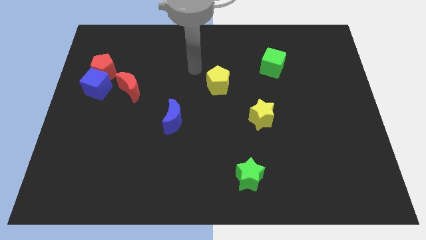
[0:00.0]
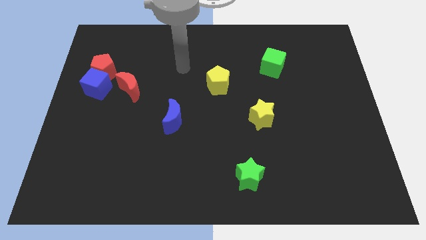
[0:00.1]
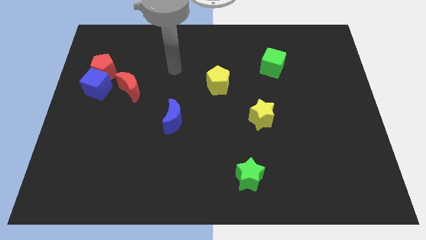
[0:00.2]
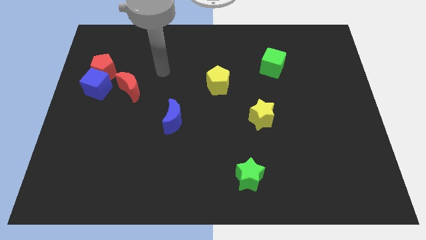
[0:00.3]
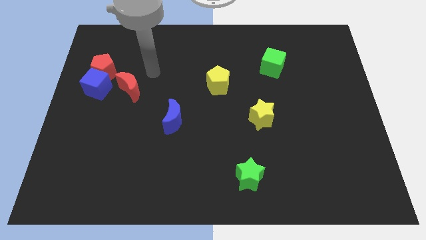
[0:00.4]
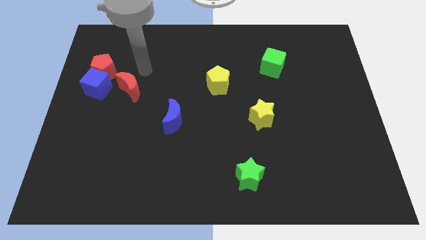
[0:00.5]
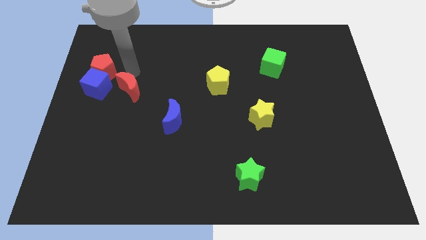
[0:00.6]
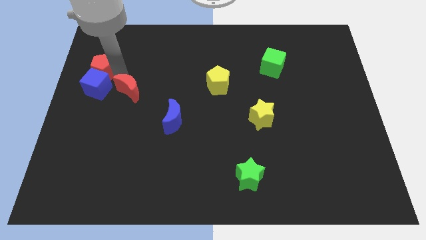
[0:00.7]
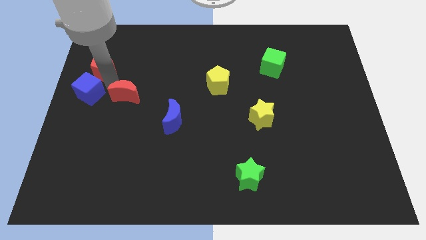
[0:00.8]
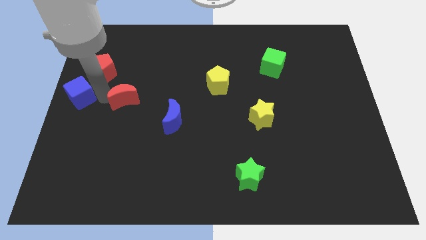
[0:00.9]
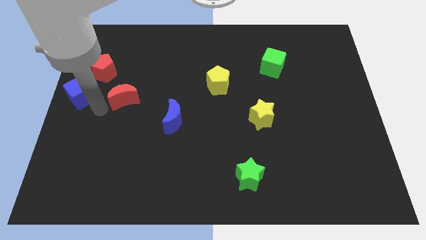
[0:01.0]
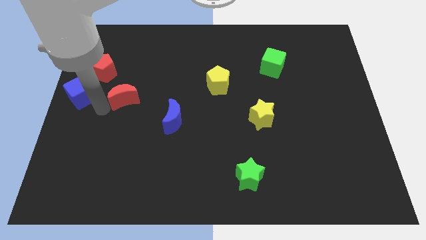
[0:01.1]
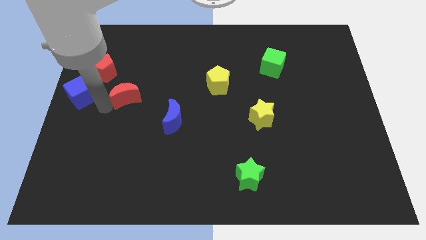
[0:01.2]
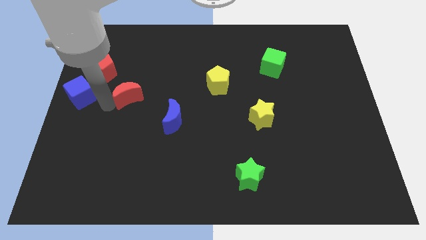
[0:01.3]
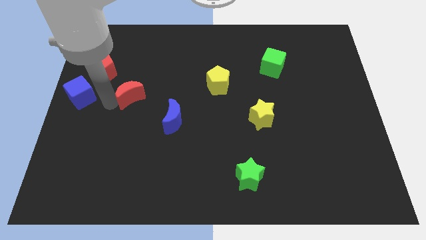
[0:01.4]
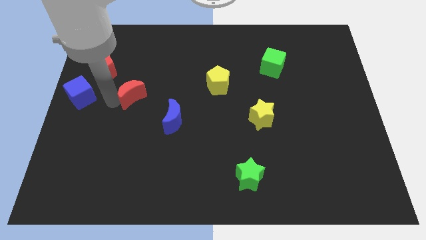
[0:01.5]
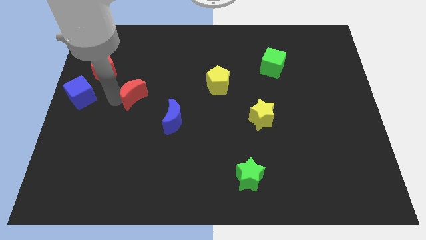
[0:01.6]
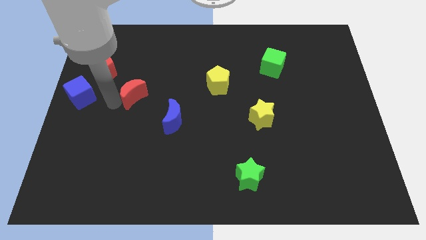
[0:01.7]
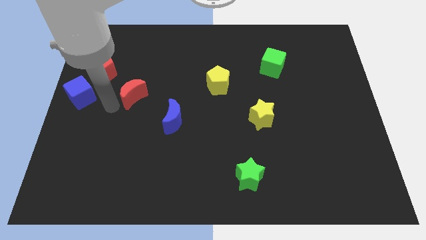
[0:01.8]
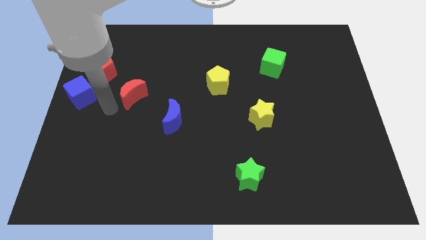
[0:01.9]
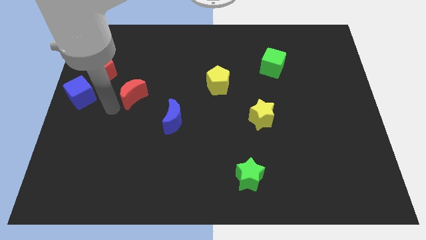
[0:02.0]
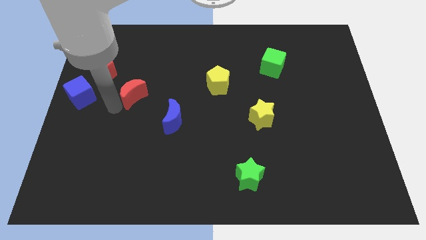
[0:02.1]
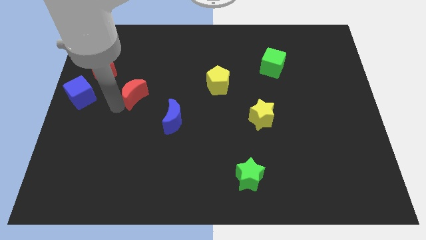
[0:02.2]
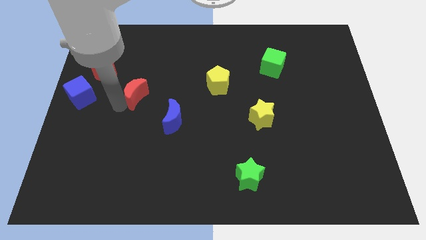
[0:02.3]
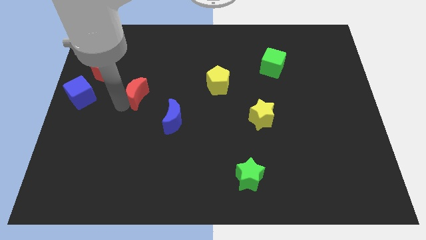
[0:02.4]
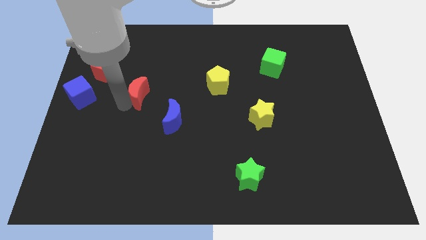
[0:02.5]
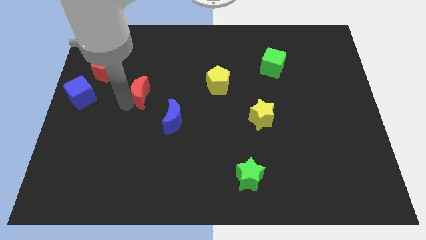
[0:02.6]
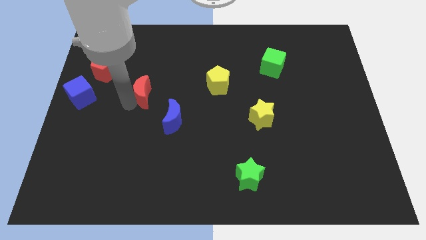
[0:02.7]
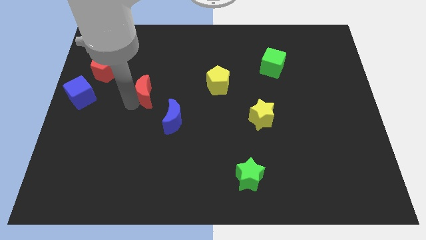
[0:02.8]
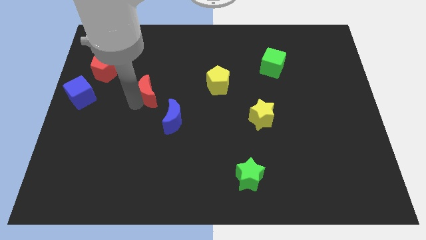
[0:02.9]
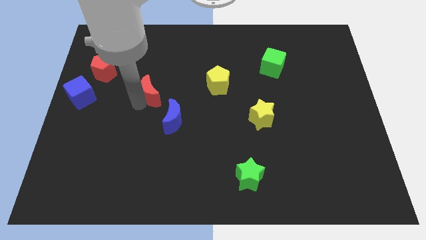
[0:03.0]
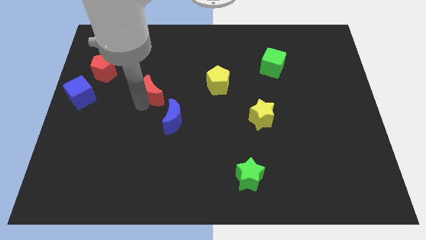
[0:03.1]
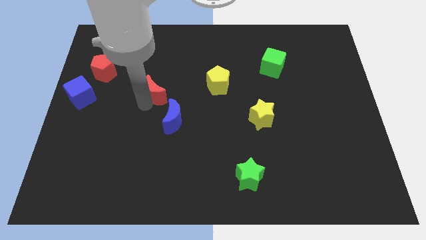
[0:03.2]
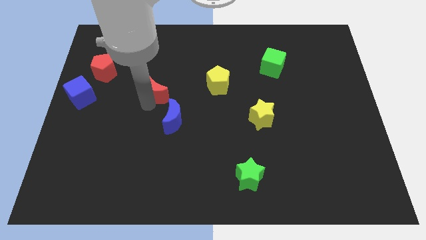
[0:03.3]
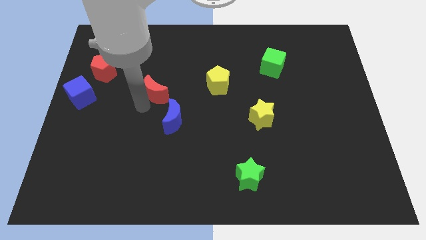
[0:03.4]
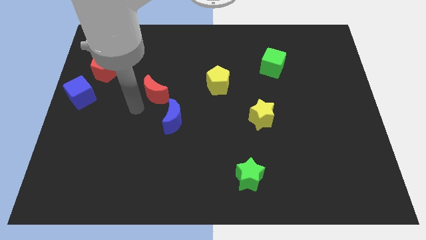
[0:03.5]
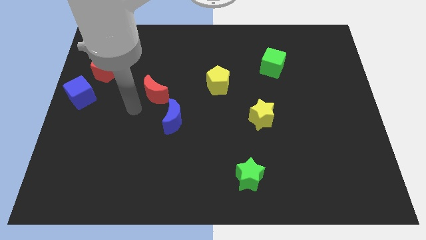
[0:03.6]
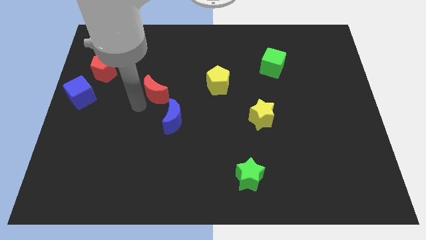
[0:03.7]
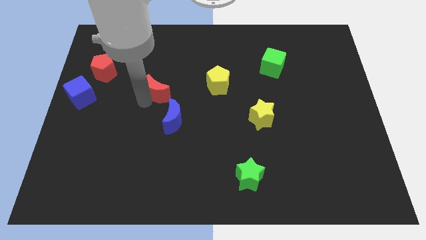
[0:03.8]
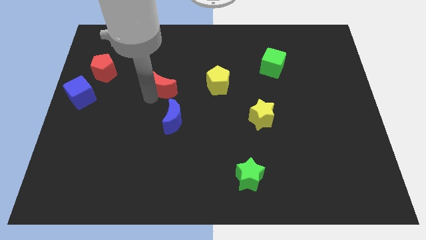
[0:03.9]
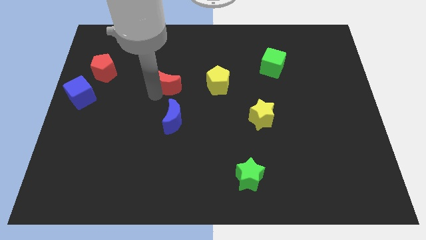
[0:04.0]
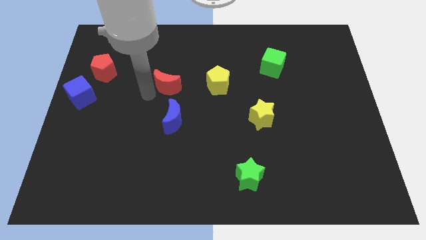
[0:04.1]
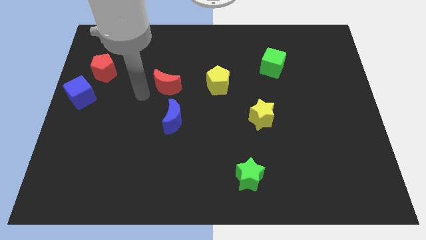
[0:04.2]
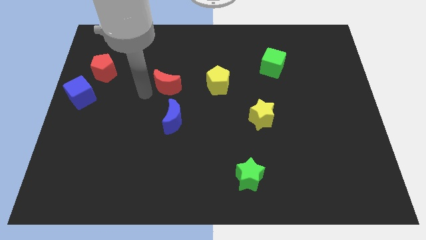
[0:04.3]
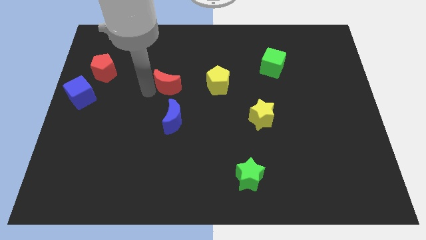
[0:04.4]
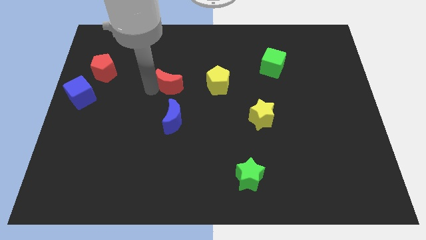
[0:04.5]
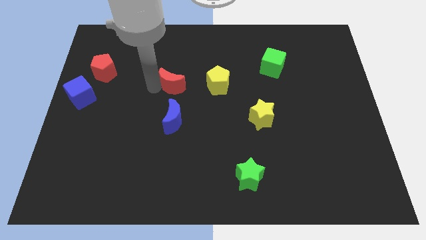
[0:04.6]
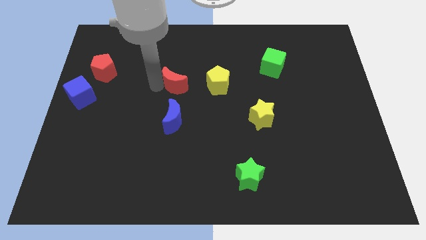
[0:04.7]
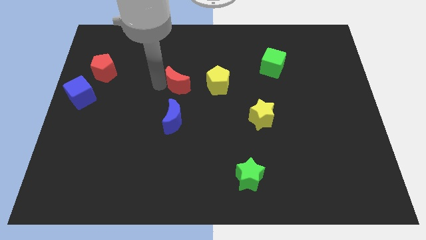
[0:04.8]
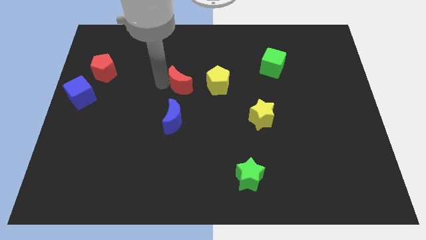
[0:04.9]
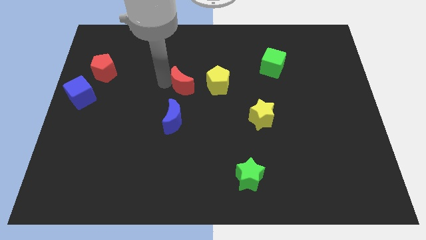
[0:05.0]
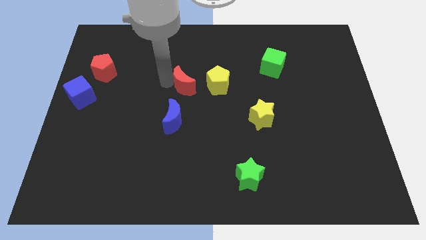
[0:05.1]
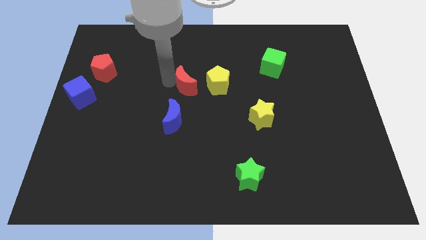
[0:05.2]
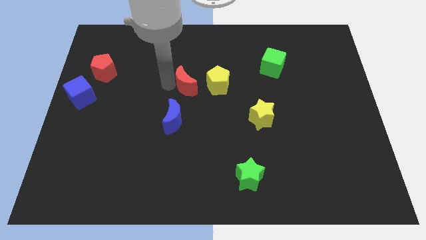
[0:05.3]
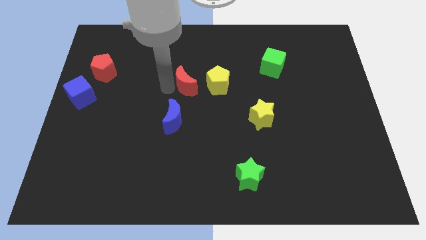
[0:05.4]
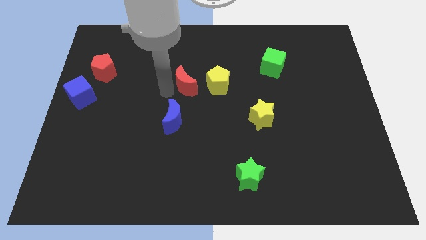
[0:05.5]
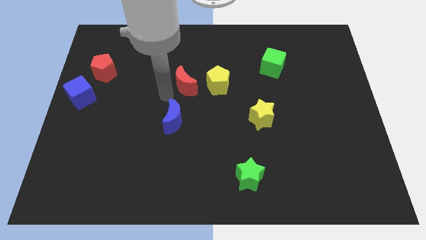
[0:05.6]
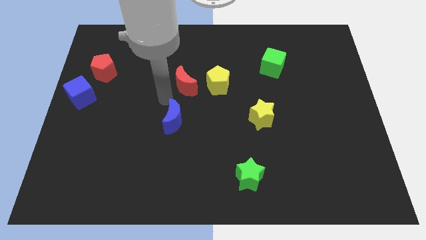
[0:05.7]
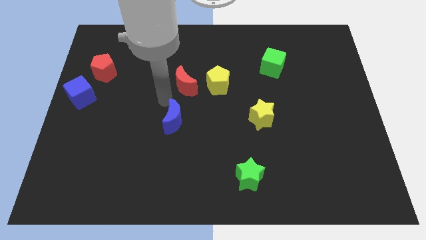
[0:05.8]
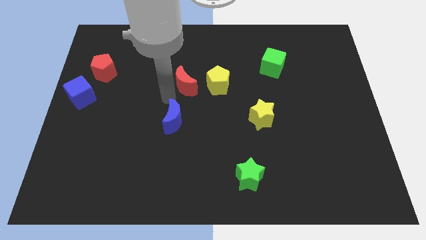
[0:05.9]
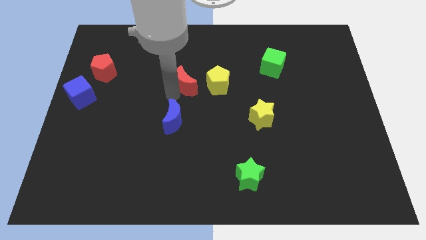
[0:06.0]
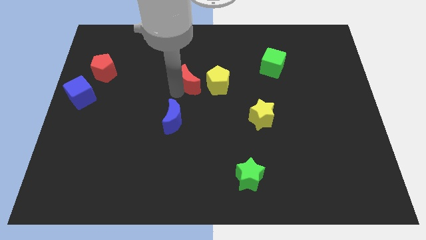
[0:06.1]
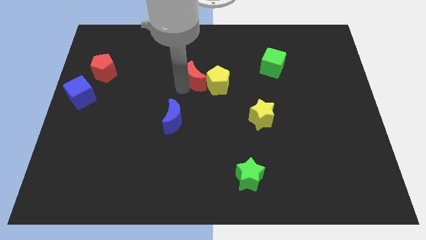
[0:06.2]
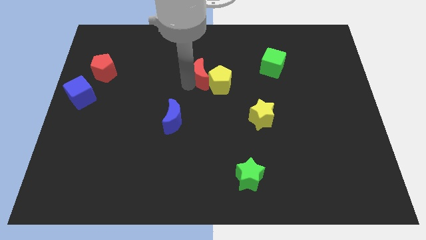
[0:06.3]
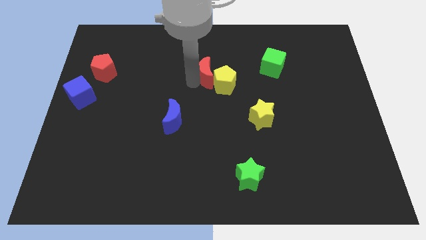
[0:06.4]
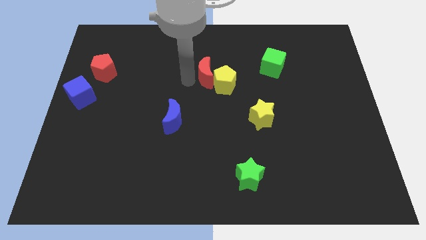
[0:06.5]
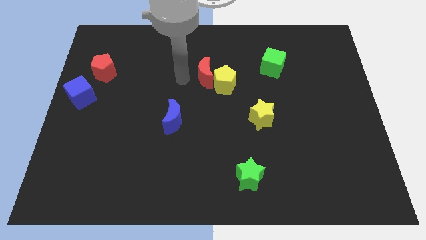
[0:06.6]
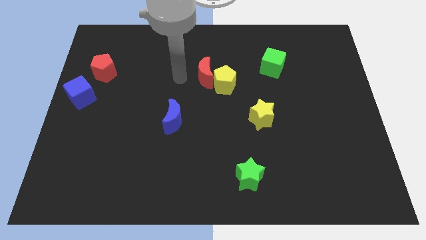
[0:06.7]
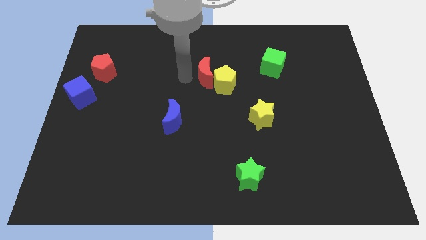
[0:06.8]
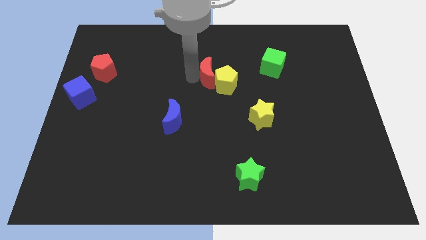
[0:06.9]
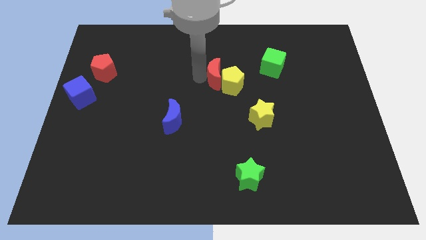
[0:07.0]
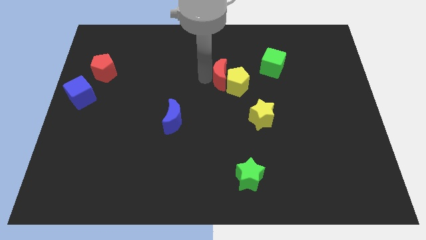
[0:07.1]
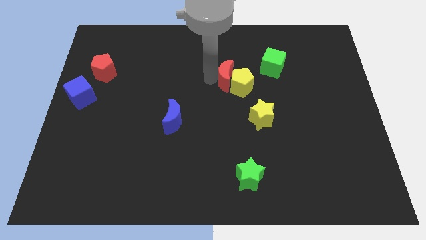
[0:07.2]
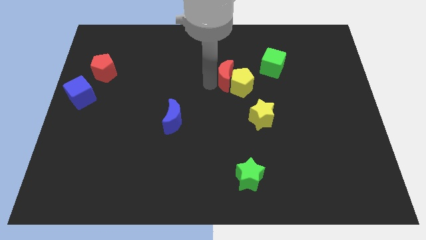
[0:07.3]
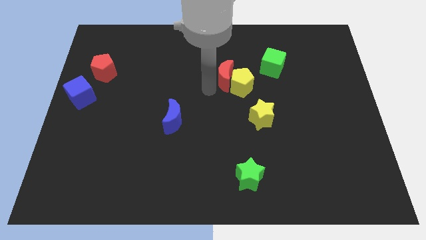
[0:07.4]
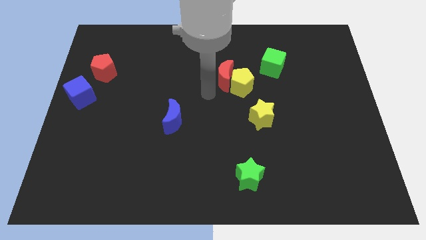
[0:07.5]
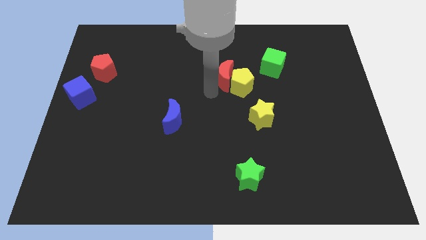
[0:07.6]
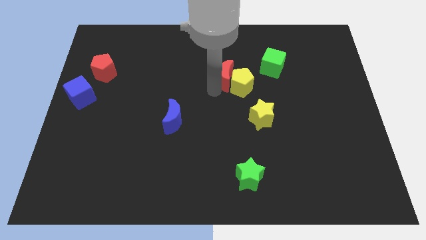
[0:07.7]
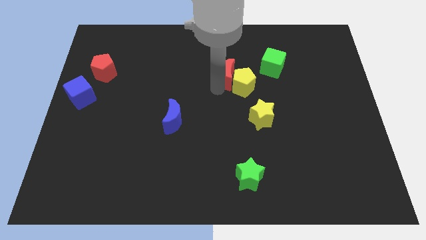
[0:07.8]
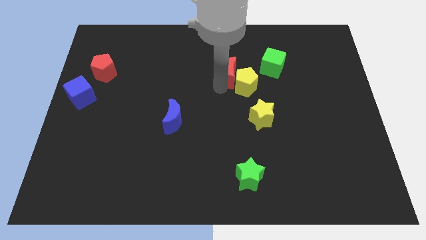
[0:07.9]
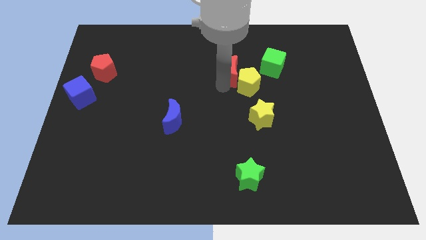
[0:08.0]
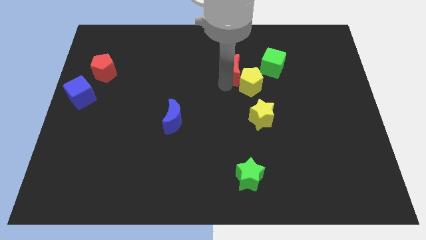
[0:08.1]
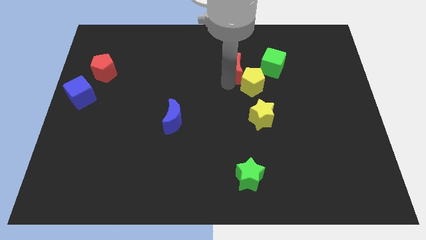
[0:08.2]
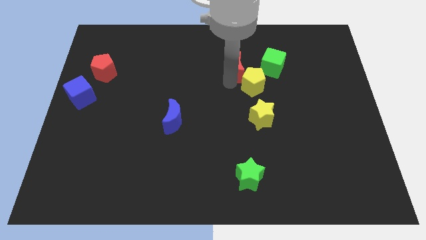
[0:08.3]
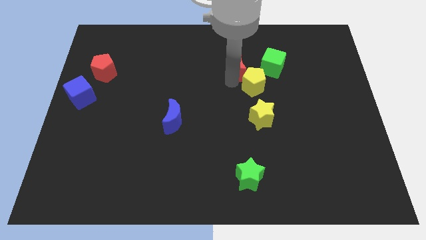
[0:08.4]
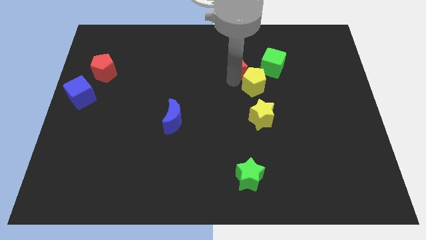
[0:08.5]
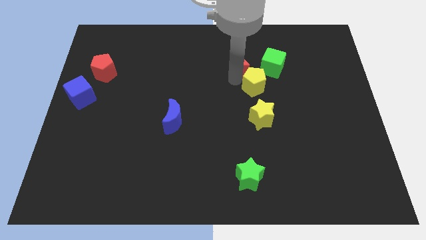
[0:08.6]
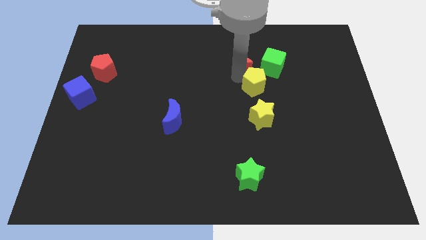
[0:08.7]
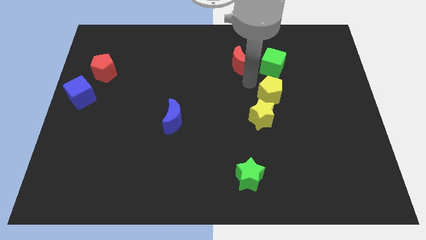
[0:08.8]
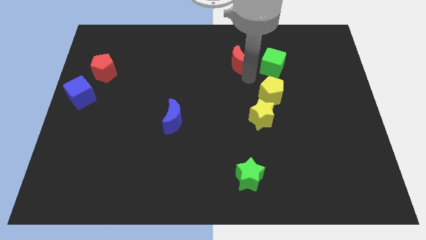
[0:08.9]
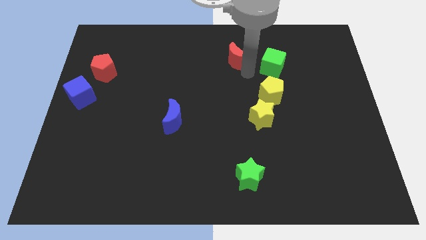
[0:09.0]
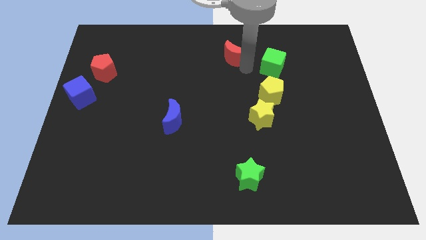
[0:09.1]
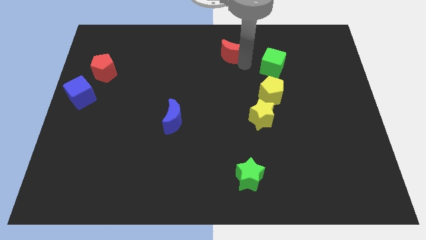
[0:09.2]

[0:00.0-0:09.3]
move the red moon to the towards your base
